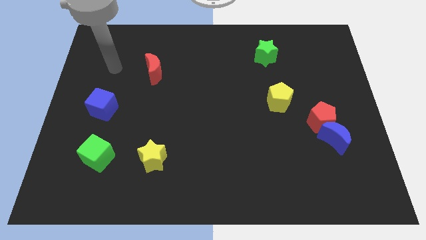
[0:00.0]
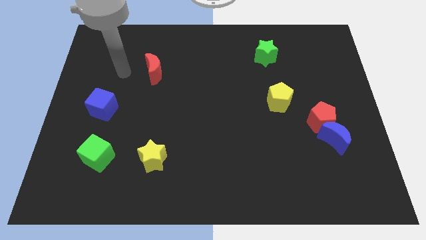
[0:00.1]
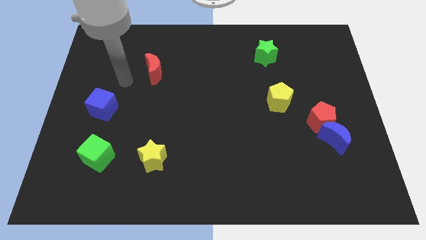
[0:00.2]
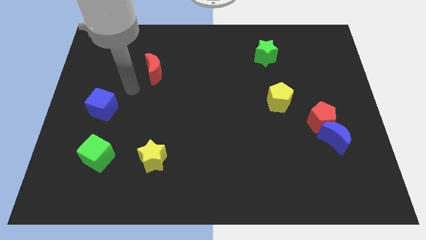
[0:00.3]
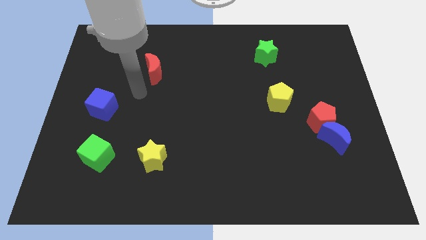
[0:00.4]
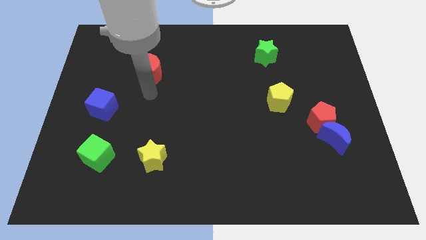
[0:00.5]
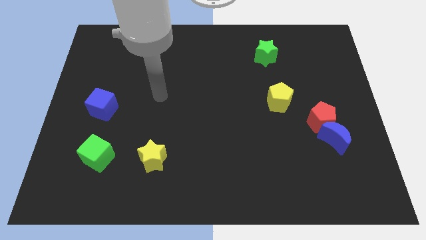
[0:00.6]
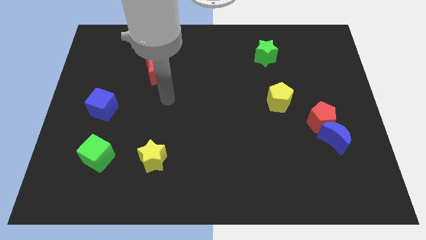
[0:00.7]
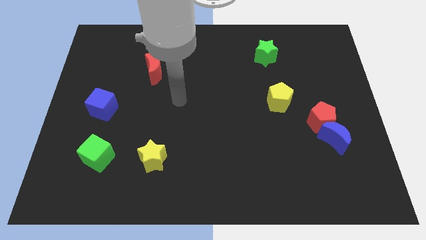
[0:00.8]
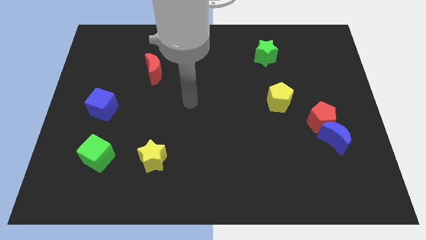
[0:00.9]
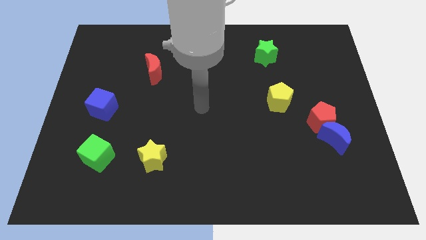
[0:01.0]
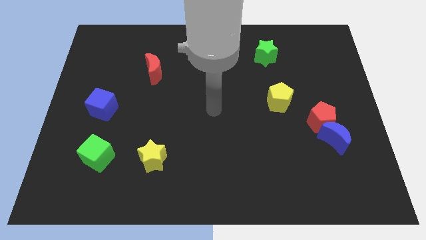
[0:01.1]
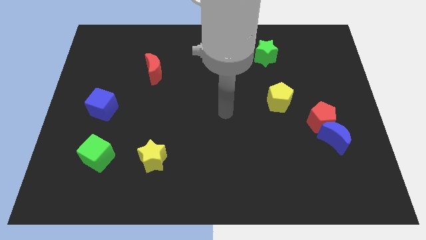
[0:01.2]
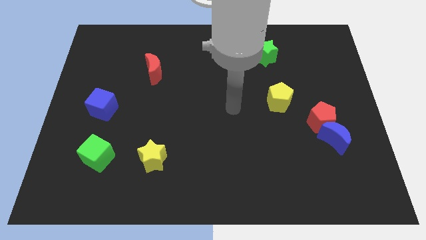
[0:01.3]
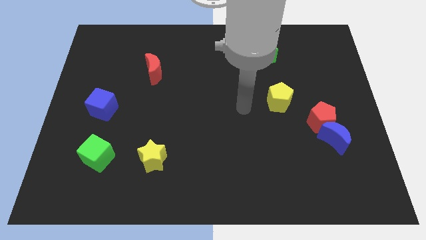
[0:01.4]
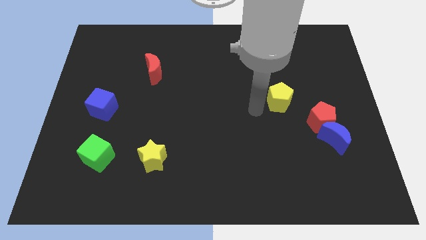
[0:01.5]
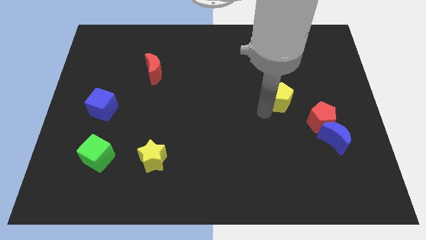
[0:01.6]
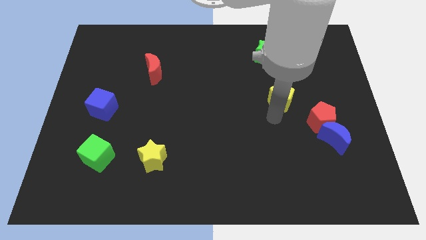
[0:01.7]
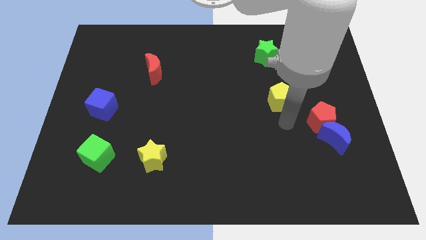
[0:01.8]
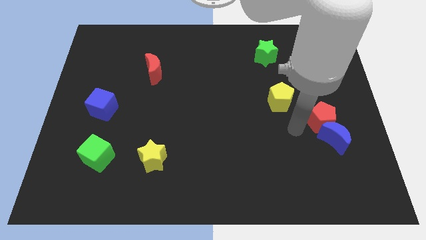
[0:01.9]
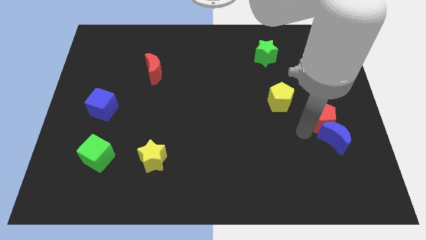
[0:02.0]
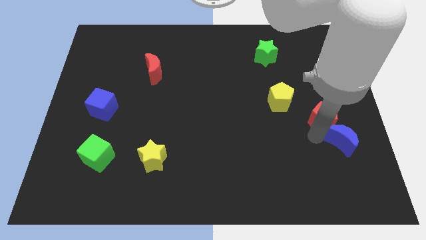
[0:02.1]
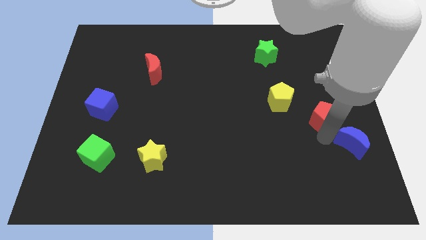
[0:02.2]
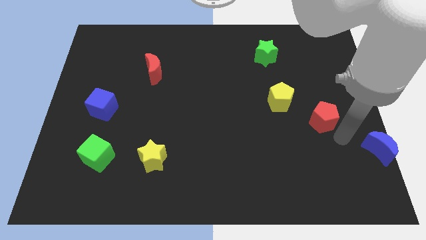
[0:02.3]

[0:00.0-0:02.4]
pull the red pentagon apart from the blue moon

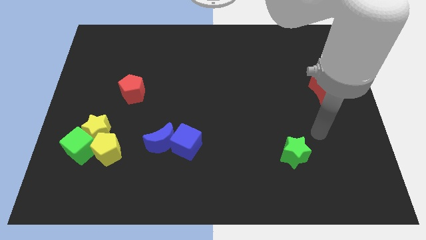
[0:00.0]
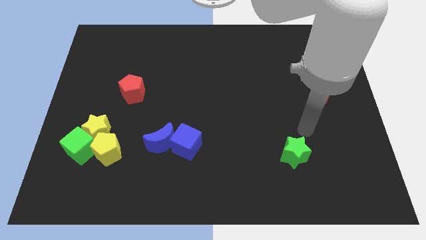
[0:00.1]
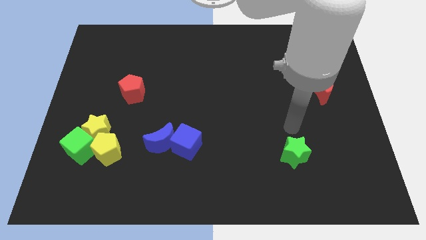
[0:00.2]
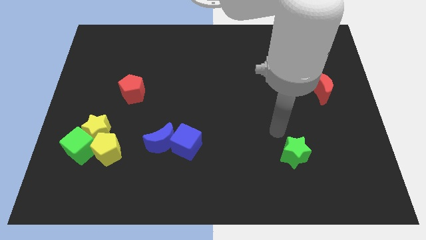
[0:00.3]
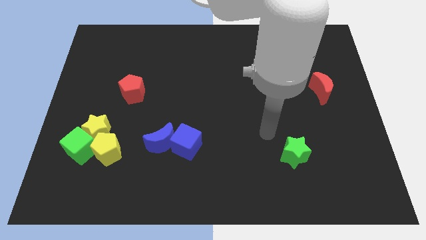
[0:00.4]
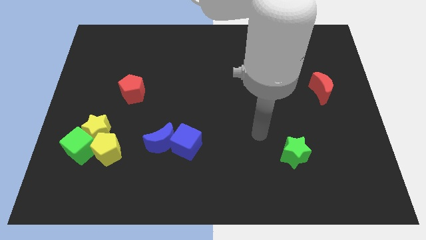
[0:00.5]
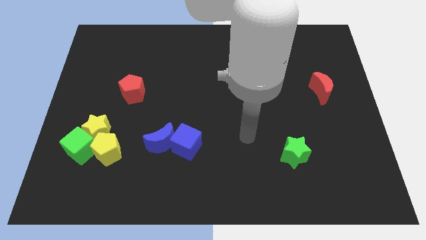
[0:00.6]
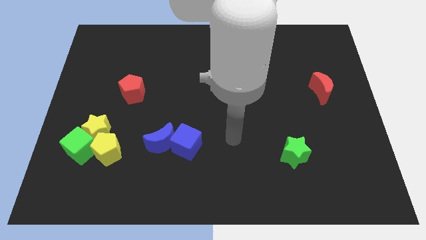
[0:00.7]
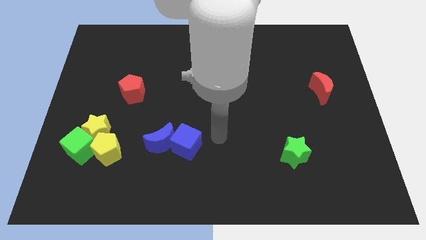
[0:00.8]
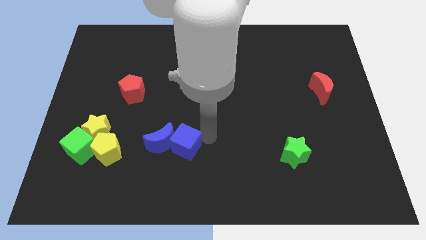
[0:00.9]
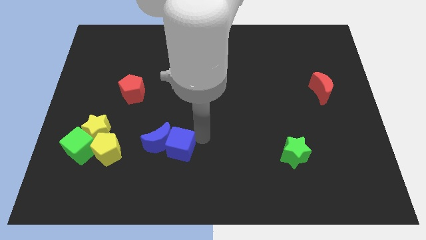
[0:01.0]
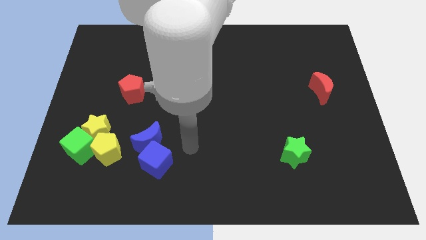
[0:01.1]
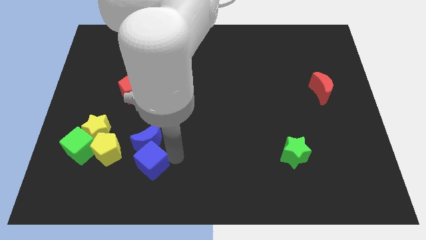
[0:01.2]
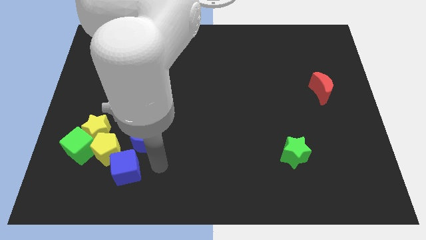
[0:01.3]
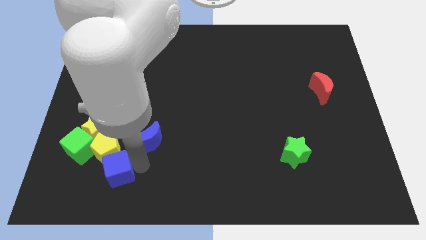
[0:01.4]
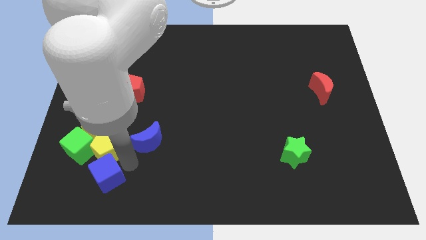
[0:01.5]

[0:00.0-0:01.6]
pull the blue moon apart from the blue cube

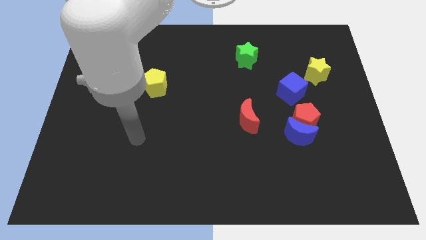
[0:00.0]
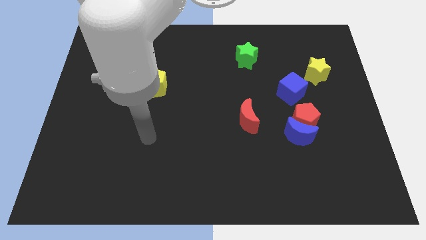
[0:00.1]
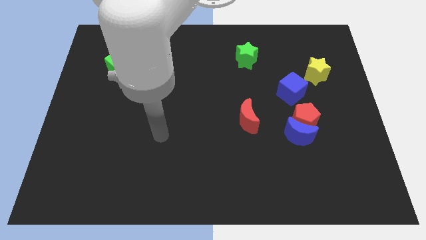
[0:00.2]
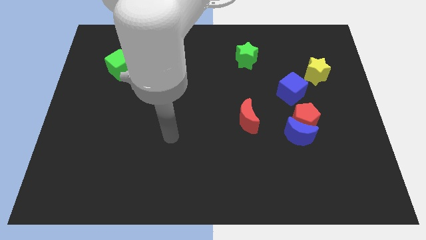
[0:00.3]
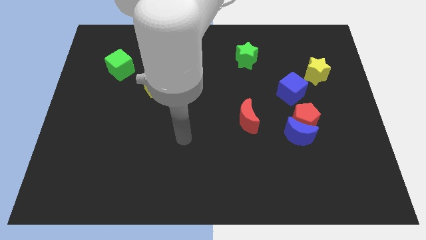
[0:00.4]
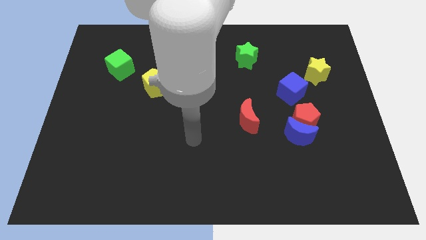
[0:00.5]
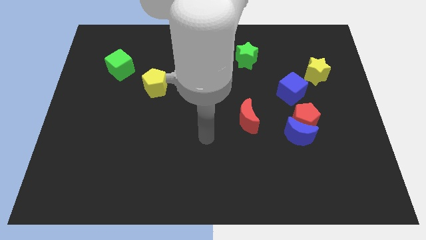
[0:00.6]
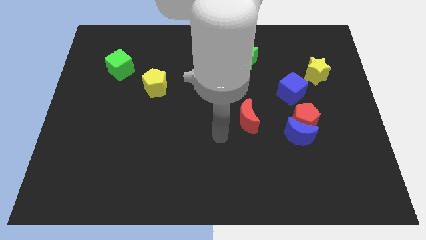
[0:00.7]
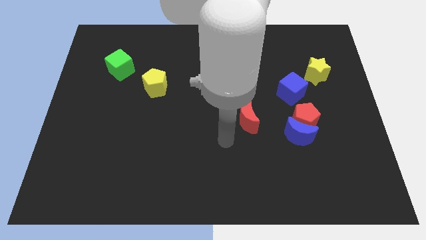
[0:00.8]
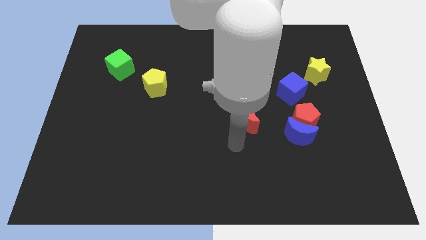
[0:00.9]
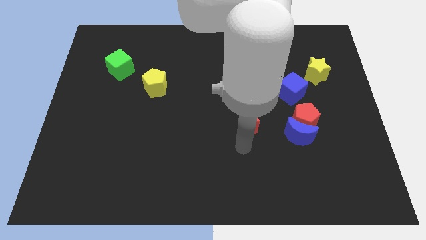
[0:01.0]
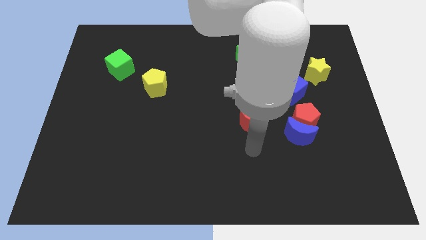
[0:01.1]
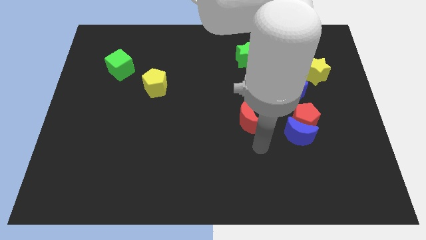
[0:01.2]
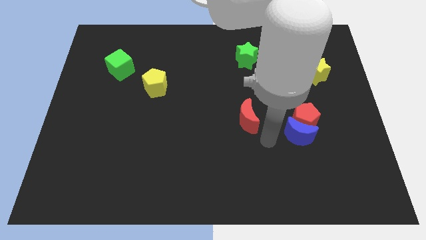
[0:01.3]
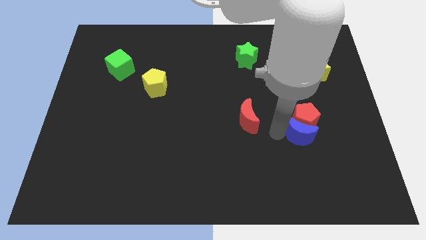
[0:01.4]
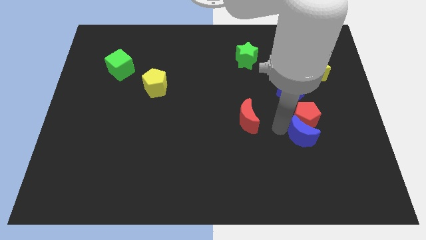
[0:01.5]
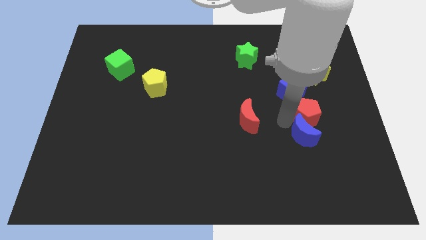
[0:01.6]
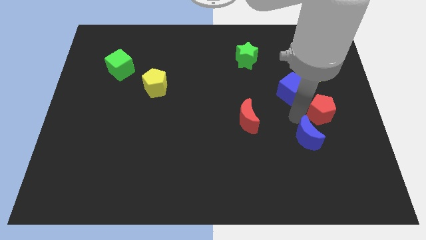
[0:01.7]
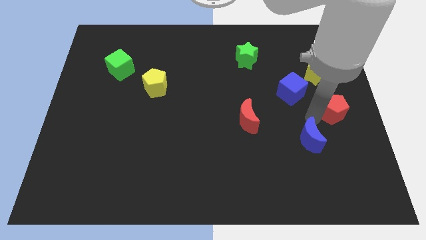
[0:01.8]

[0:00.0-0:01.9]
separate the blue moon from the red pentagon

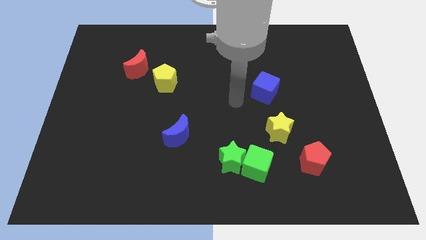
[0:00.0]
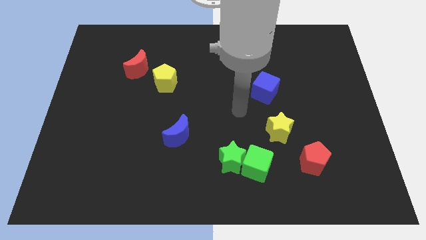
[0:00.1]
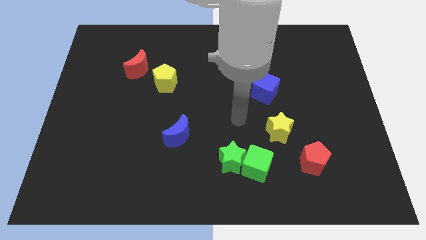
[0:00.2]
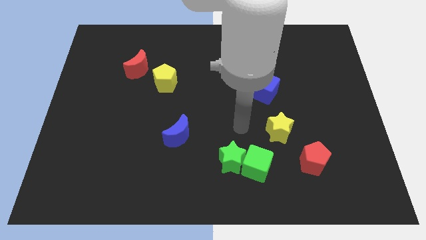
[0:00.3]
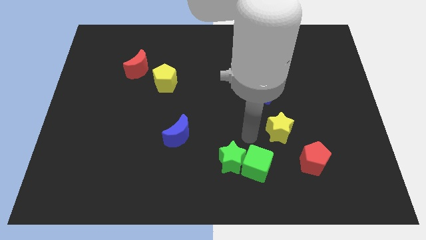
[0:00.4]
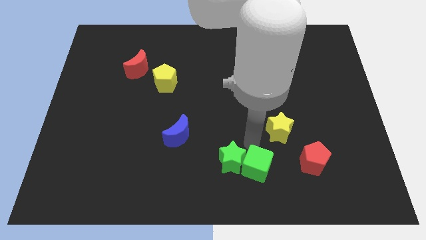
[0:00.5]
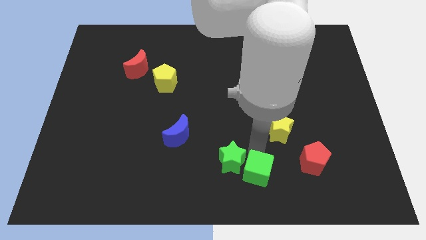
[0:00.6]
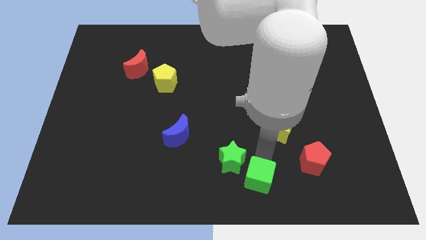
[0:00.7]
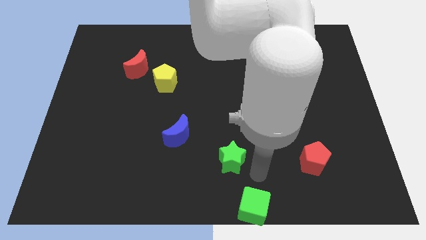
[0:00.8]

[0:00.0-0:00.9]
separate the green star from the green cube

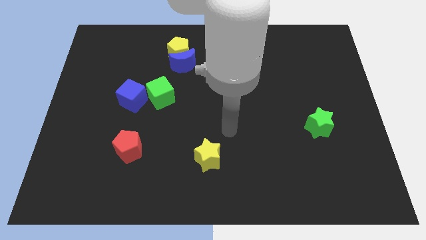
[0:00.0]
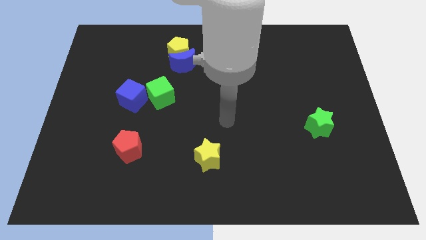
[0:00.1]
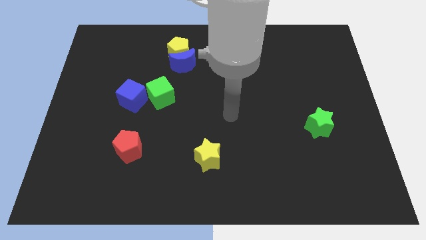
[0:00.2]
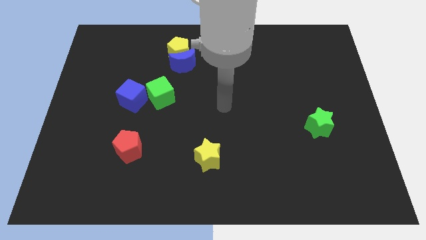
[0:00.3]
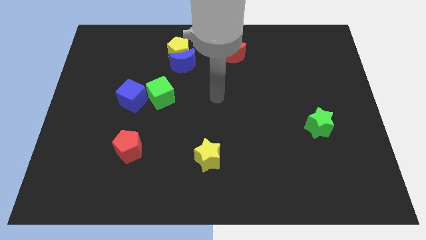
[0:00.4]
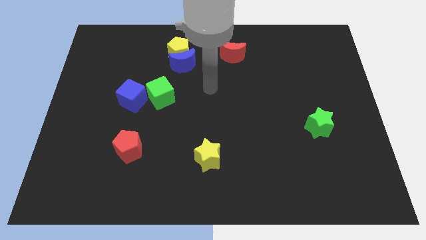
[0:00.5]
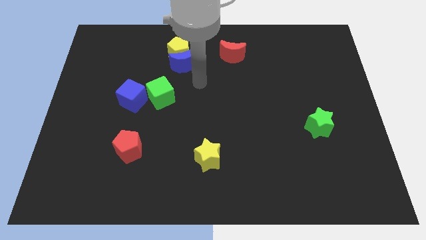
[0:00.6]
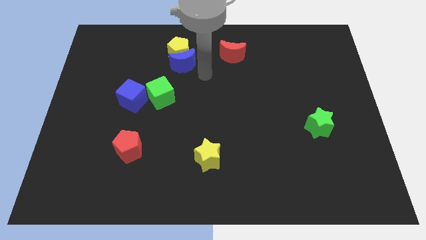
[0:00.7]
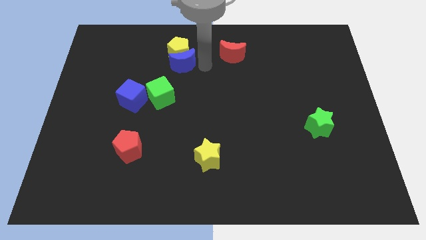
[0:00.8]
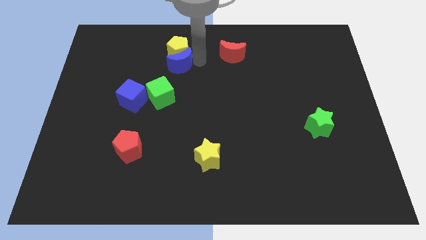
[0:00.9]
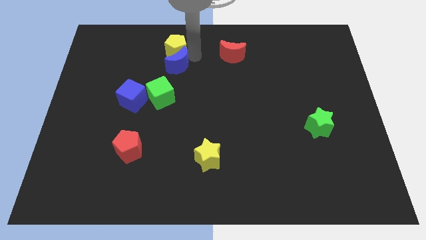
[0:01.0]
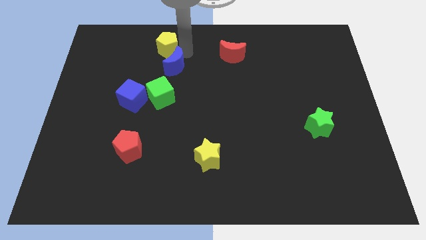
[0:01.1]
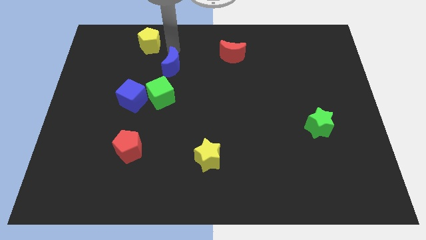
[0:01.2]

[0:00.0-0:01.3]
move the blue moon away from the yellow pentagon

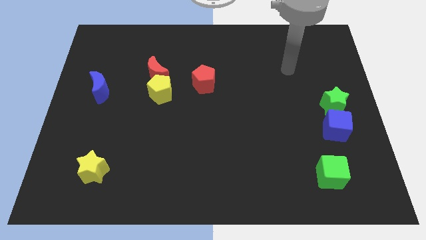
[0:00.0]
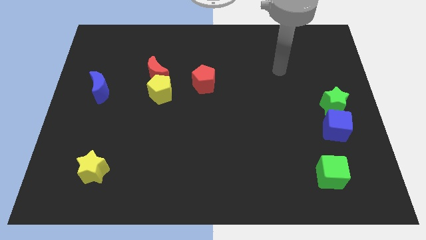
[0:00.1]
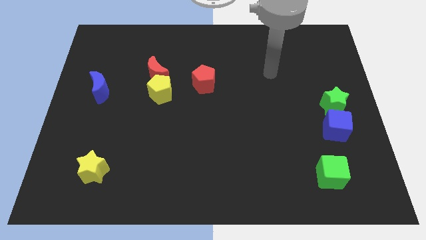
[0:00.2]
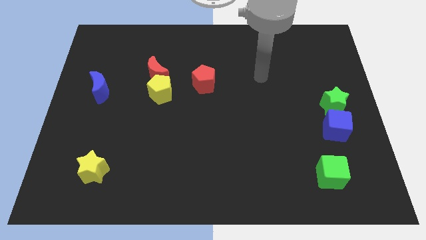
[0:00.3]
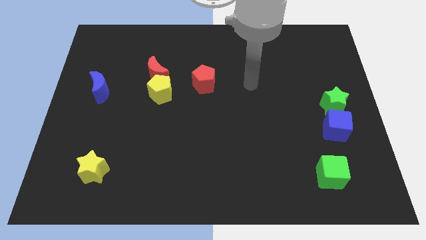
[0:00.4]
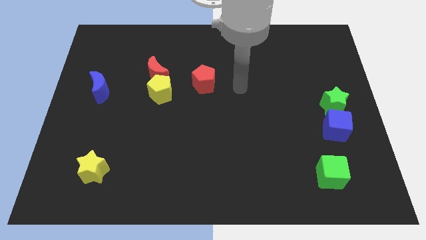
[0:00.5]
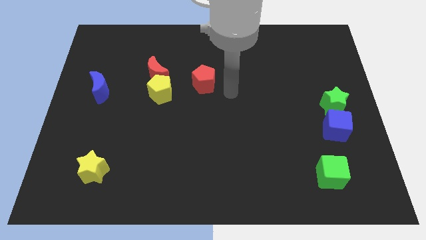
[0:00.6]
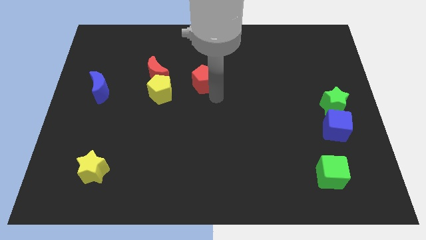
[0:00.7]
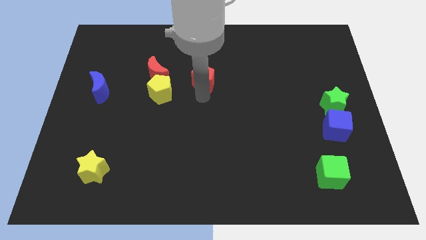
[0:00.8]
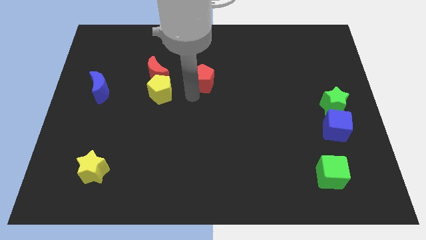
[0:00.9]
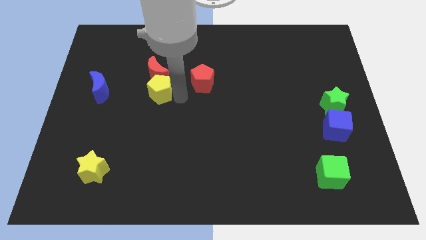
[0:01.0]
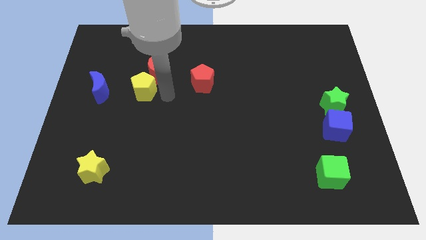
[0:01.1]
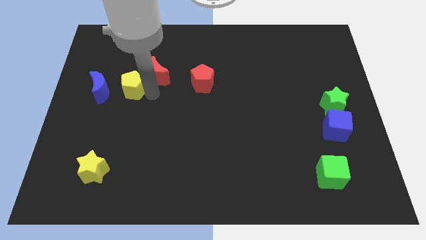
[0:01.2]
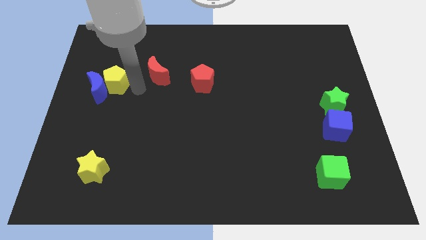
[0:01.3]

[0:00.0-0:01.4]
move the red moon away from the yellow pentagon
